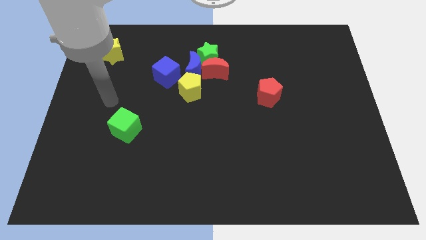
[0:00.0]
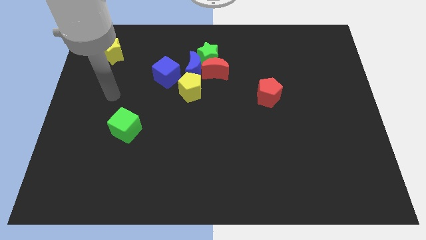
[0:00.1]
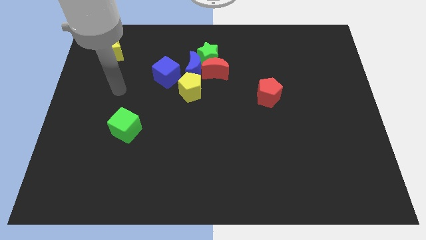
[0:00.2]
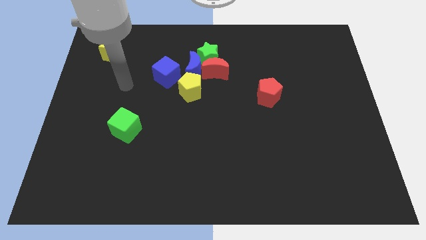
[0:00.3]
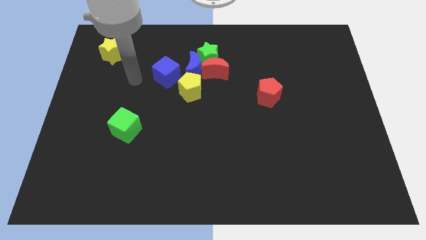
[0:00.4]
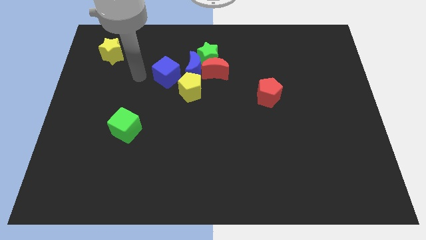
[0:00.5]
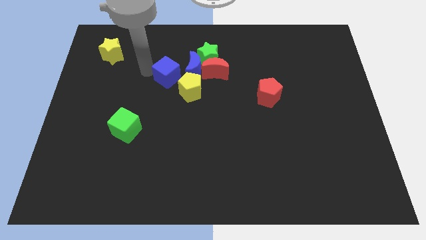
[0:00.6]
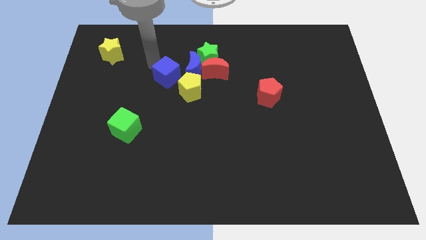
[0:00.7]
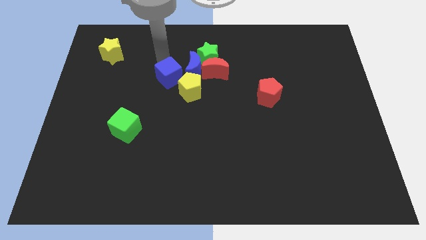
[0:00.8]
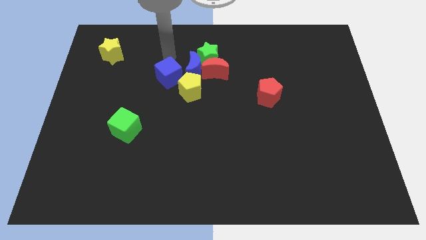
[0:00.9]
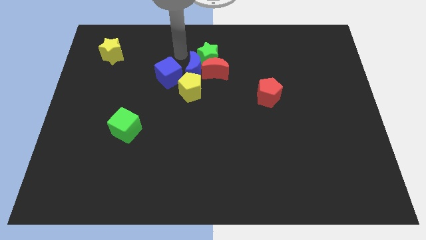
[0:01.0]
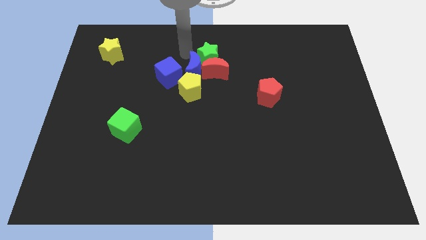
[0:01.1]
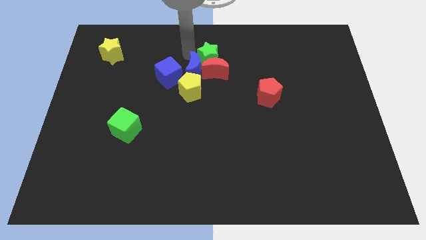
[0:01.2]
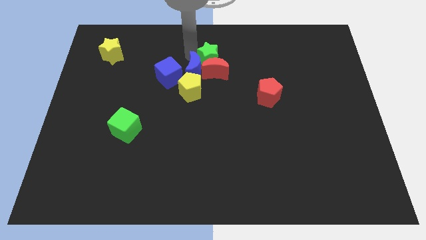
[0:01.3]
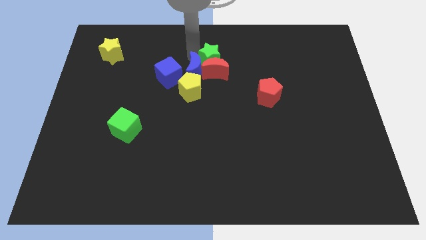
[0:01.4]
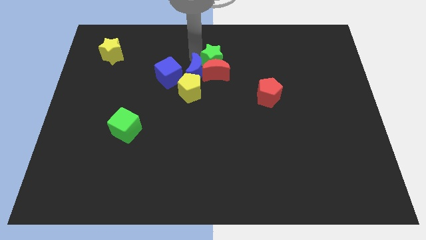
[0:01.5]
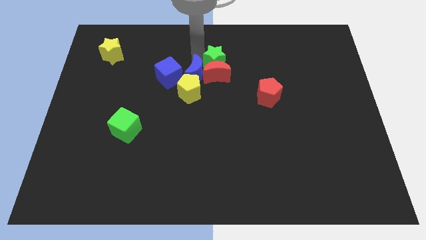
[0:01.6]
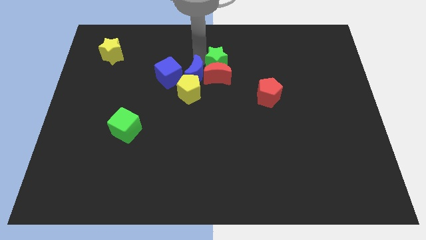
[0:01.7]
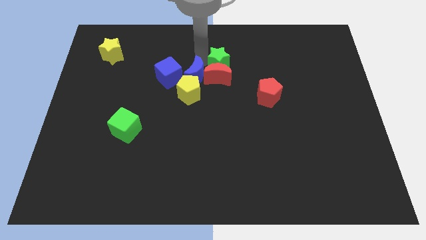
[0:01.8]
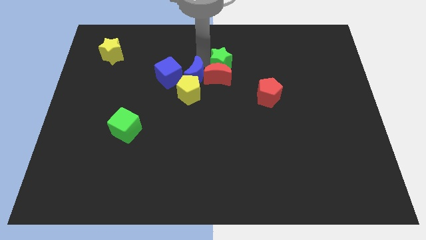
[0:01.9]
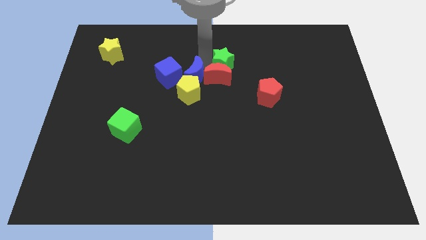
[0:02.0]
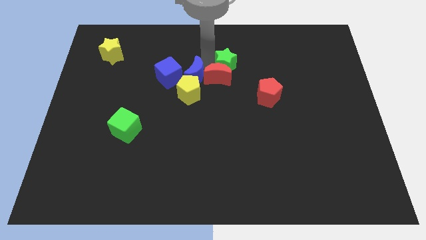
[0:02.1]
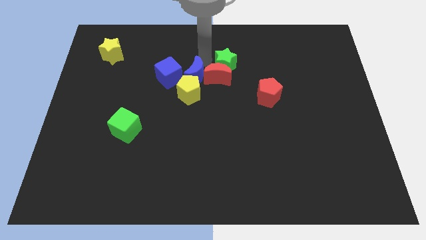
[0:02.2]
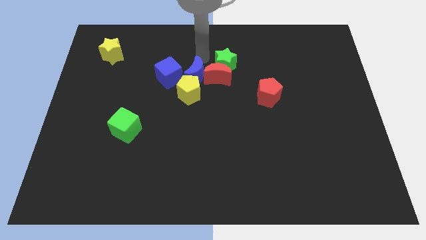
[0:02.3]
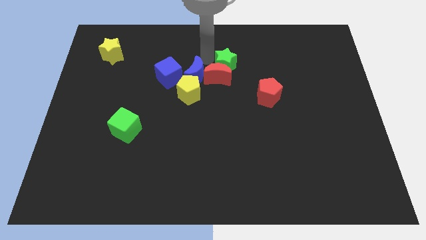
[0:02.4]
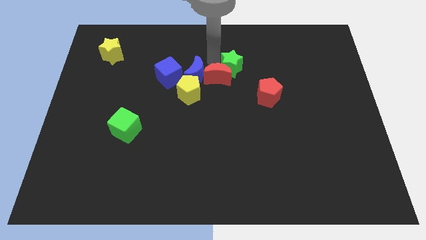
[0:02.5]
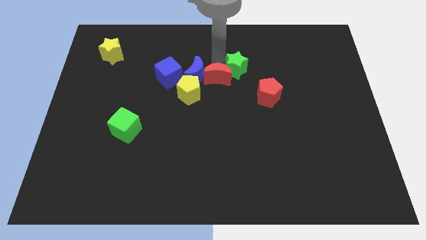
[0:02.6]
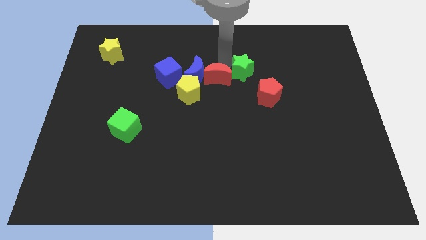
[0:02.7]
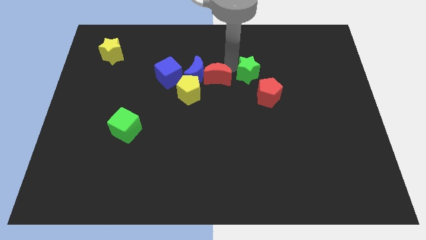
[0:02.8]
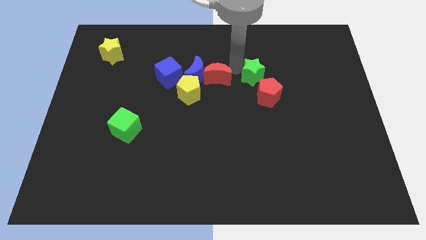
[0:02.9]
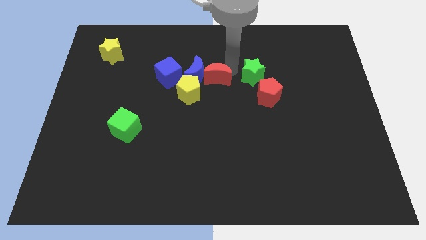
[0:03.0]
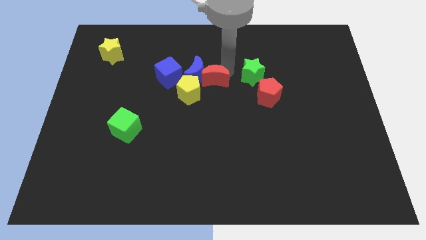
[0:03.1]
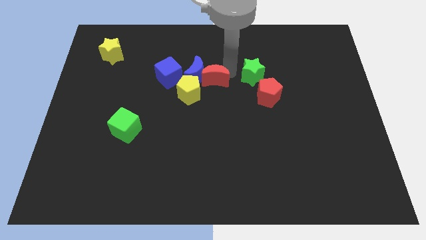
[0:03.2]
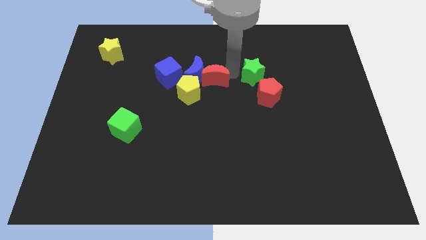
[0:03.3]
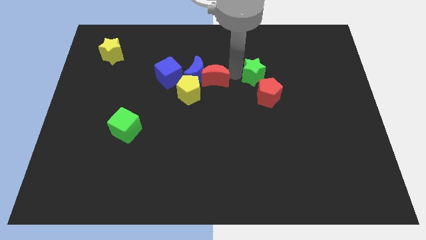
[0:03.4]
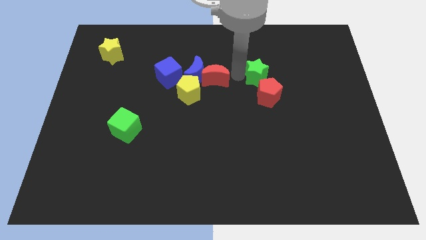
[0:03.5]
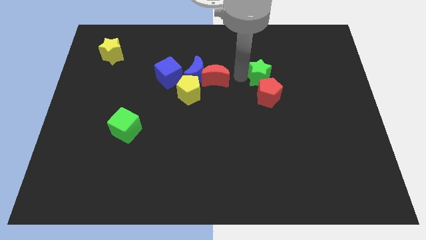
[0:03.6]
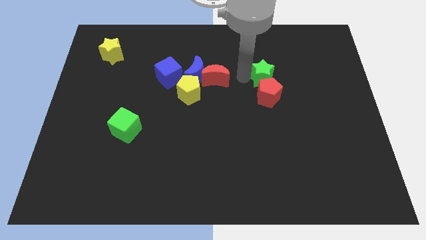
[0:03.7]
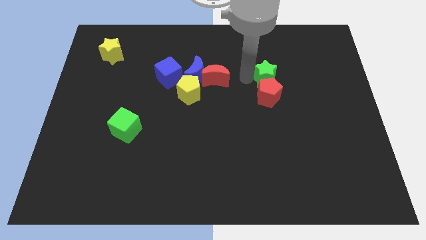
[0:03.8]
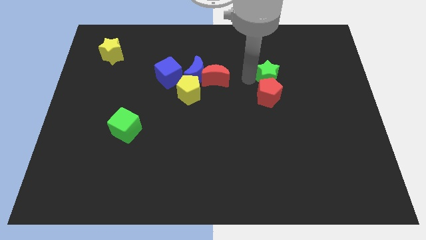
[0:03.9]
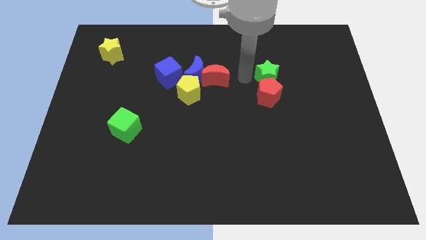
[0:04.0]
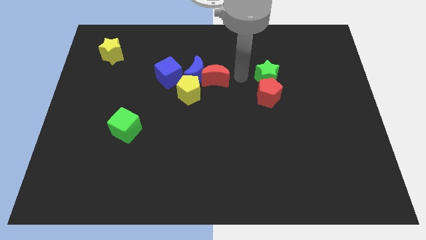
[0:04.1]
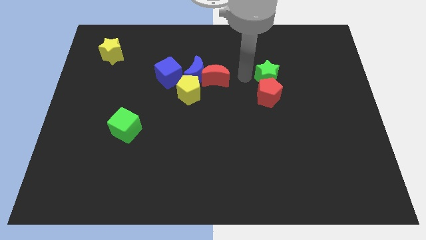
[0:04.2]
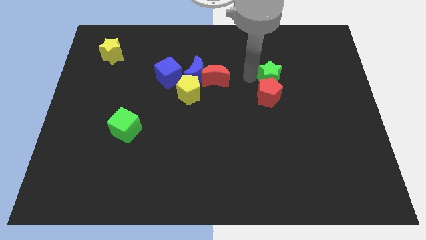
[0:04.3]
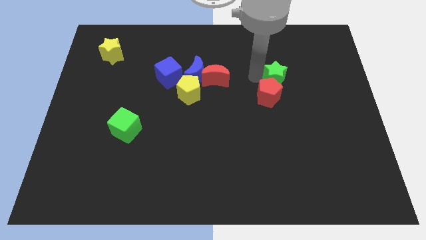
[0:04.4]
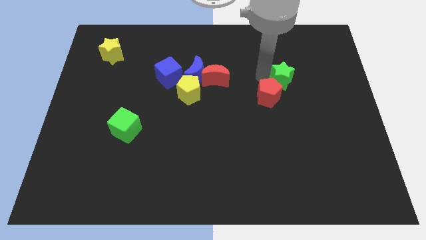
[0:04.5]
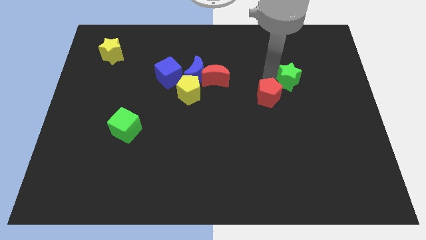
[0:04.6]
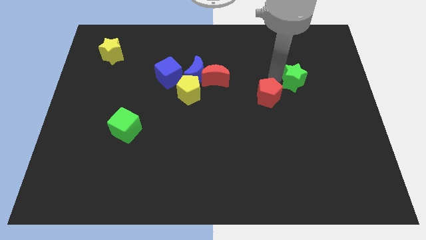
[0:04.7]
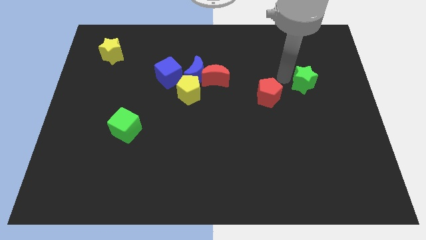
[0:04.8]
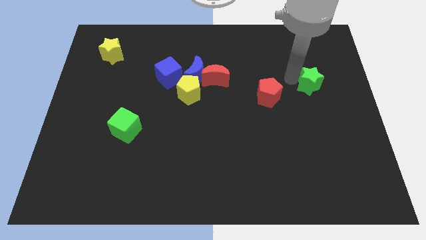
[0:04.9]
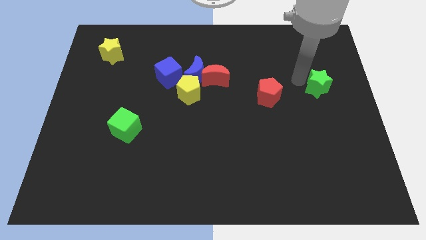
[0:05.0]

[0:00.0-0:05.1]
push the green star to the right side of the board

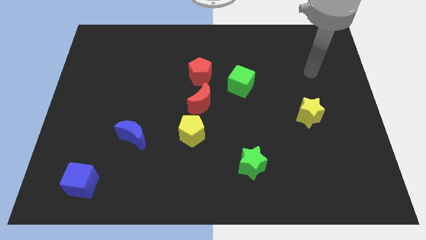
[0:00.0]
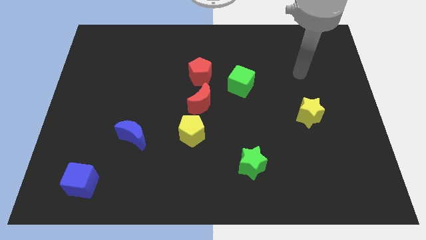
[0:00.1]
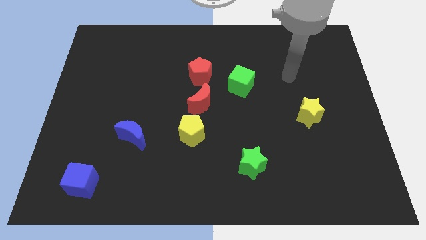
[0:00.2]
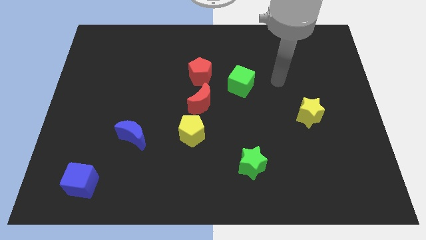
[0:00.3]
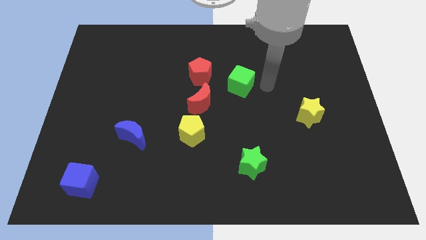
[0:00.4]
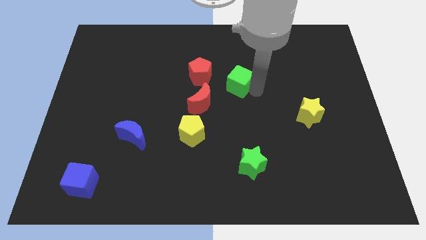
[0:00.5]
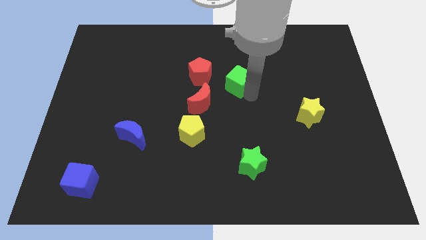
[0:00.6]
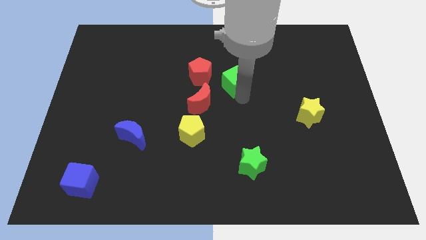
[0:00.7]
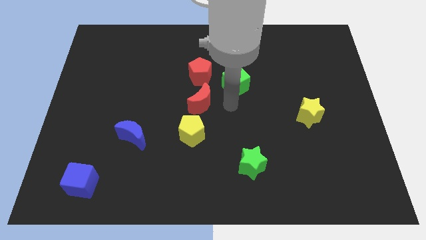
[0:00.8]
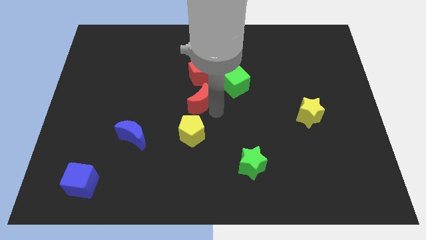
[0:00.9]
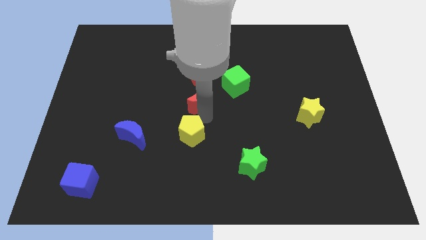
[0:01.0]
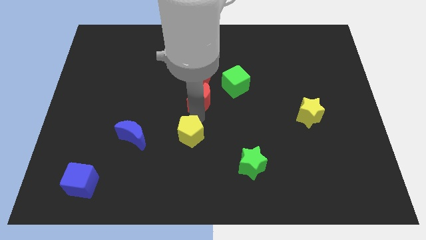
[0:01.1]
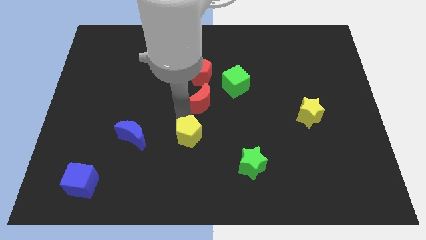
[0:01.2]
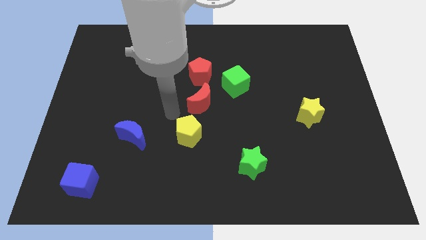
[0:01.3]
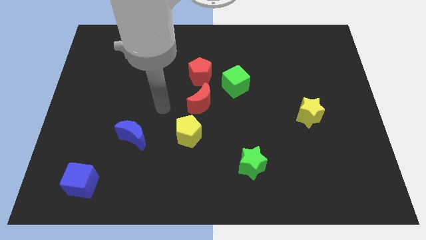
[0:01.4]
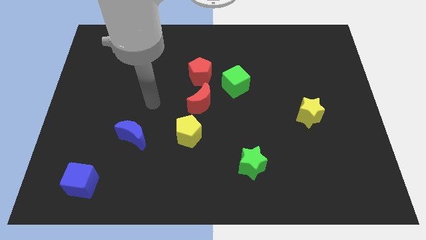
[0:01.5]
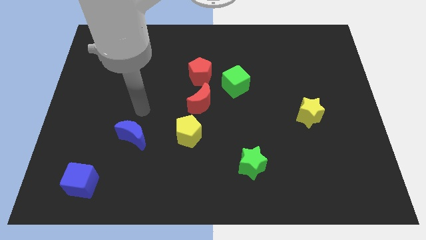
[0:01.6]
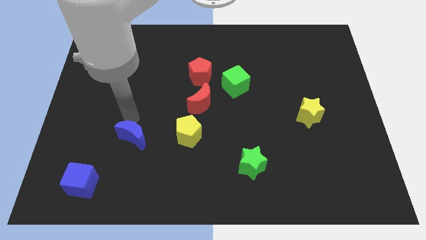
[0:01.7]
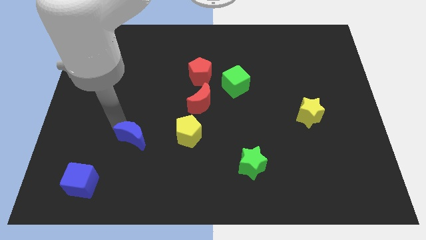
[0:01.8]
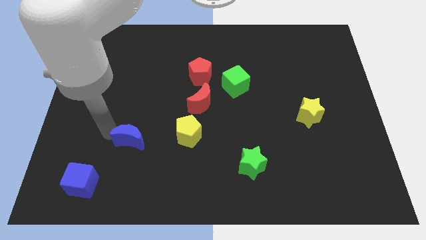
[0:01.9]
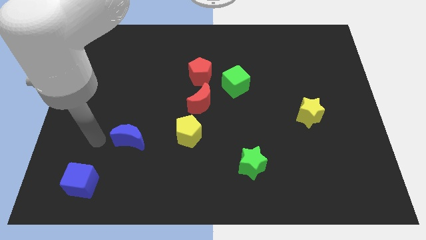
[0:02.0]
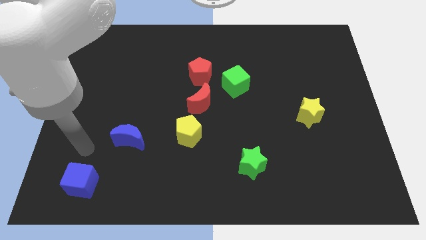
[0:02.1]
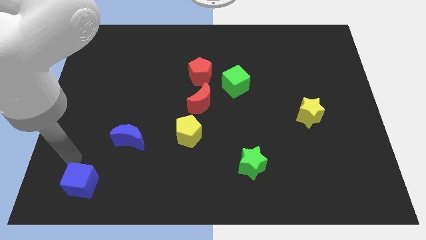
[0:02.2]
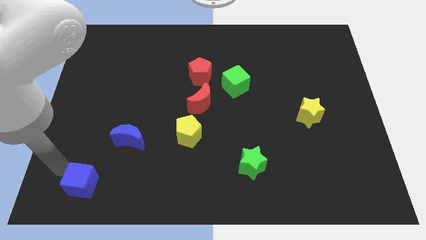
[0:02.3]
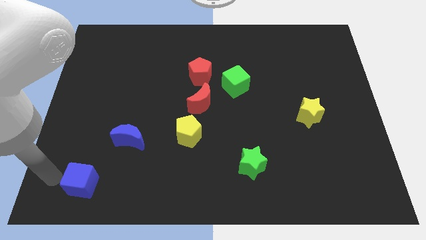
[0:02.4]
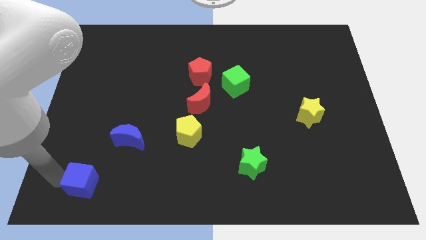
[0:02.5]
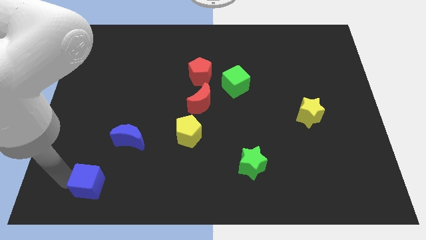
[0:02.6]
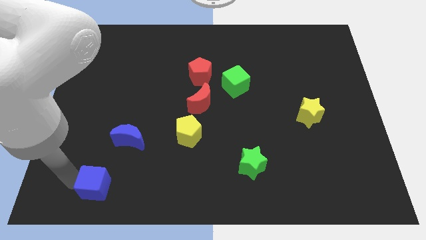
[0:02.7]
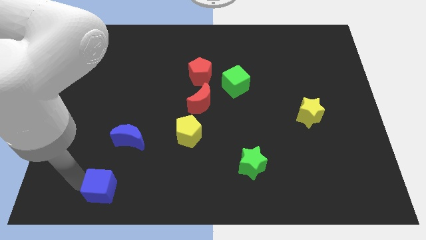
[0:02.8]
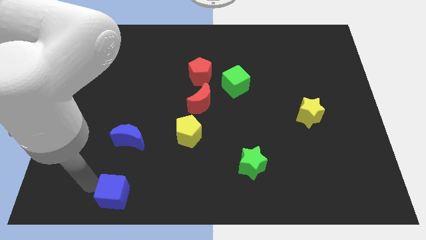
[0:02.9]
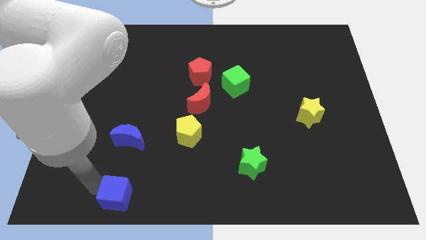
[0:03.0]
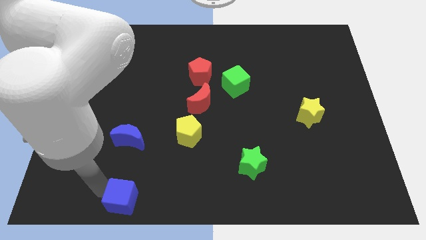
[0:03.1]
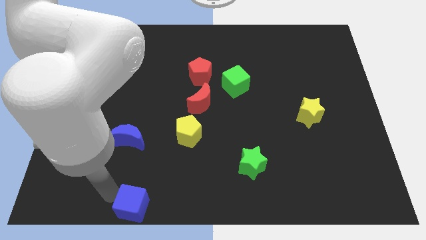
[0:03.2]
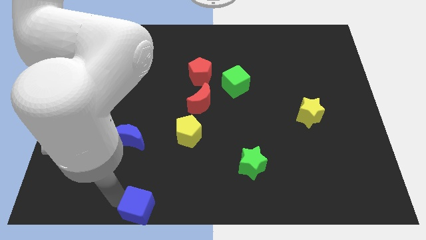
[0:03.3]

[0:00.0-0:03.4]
slide the blue cube to the bottom
